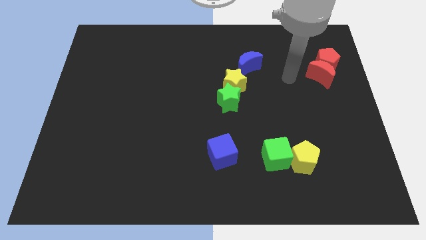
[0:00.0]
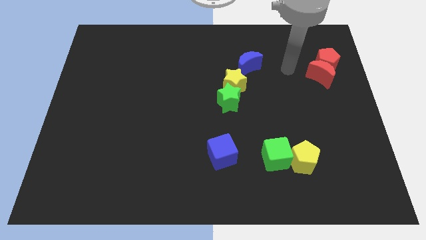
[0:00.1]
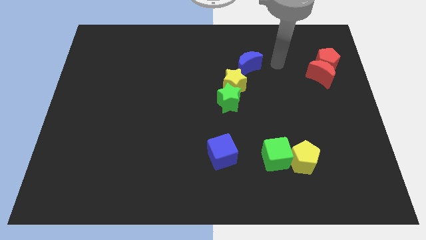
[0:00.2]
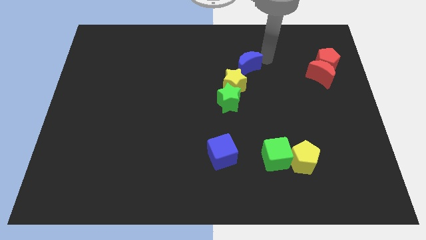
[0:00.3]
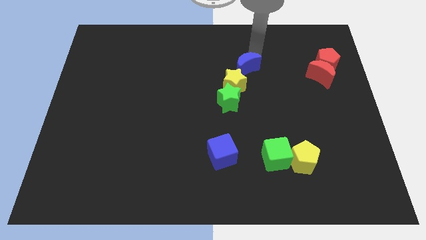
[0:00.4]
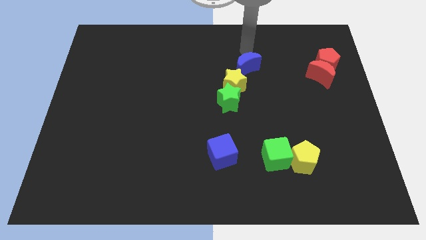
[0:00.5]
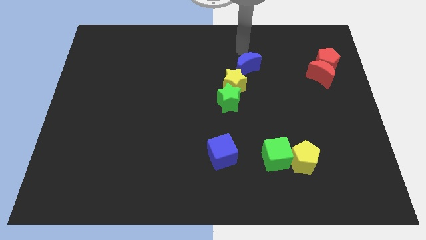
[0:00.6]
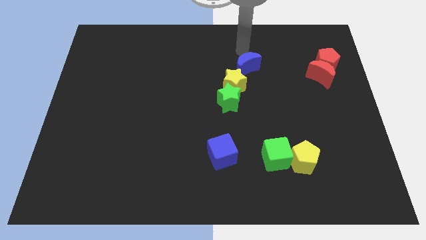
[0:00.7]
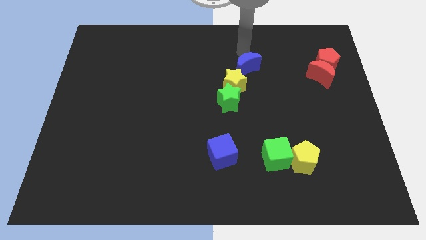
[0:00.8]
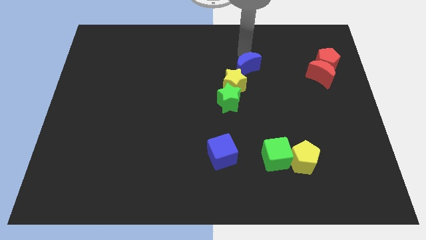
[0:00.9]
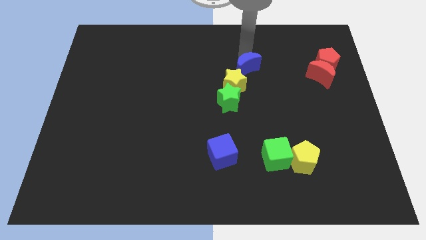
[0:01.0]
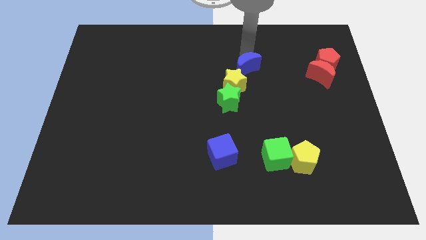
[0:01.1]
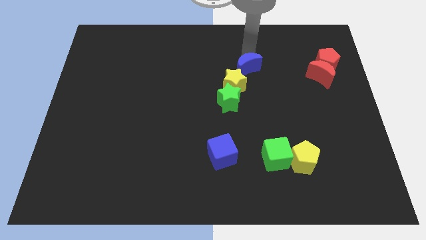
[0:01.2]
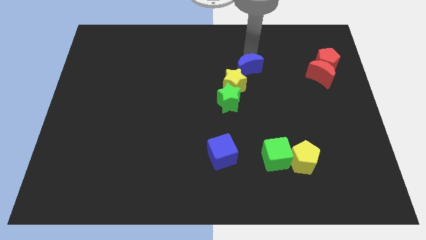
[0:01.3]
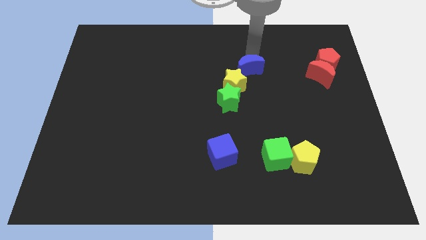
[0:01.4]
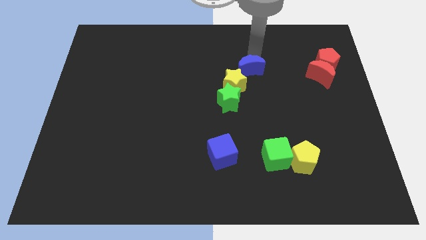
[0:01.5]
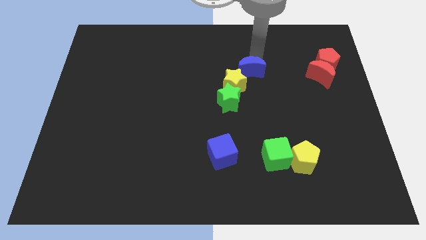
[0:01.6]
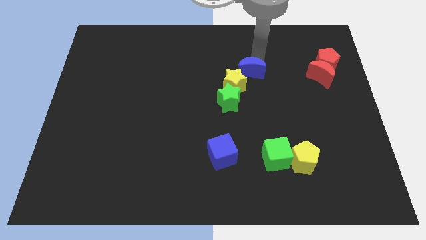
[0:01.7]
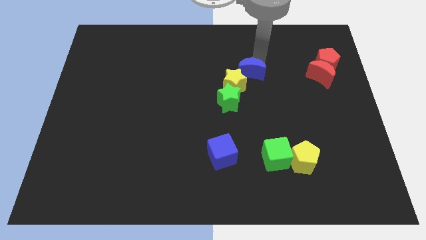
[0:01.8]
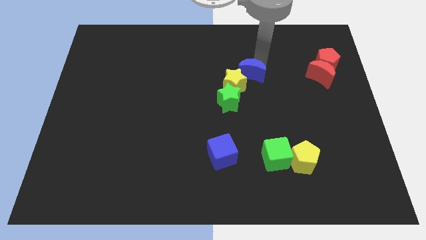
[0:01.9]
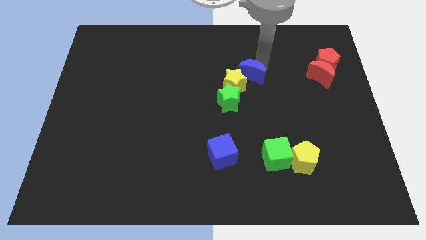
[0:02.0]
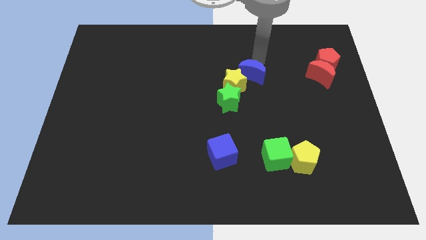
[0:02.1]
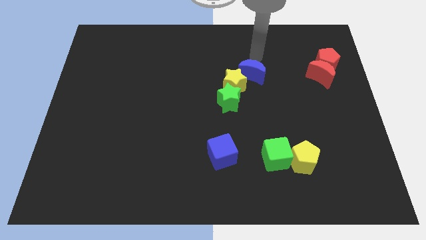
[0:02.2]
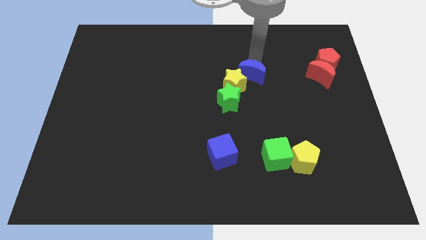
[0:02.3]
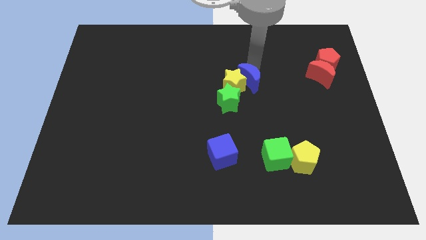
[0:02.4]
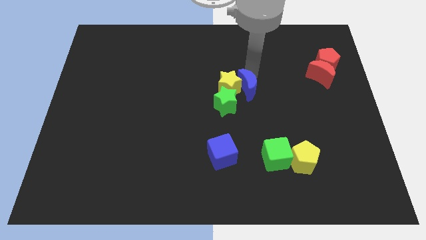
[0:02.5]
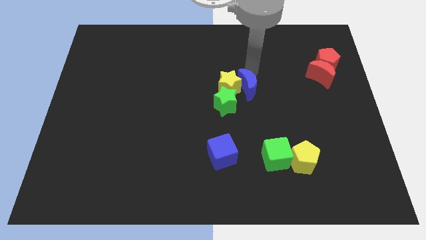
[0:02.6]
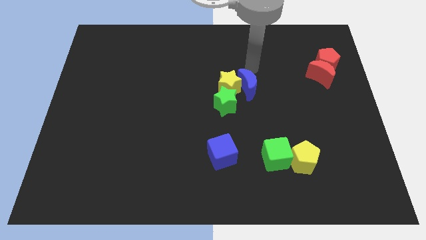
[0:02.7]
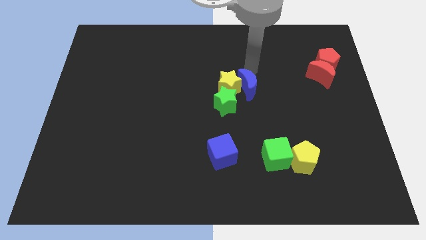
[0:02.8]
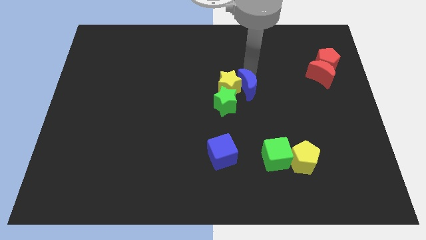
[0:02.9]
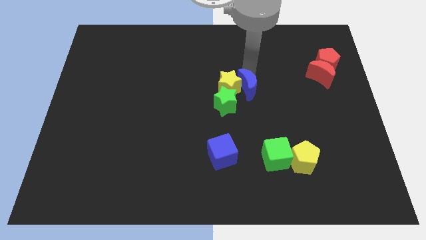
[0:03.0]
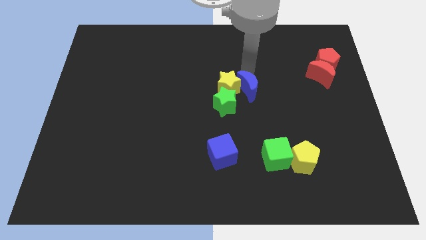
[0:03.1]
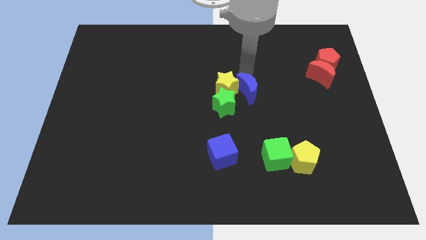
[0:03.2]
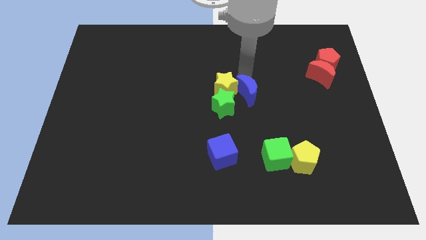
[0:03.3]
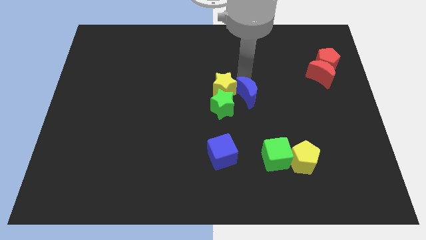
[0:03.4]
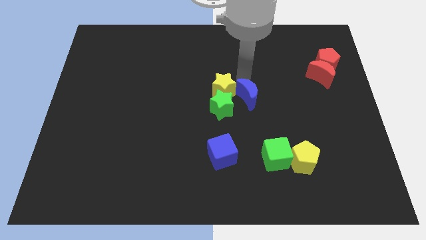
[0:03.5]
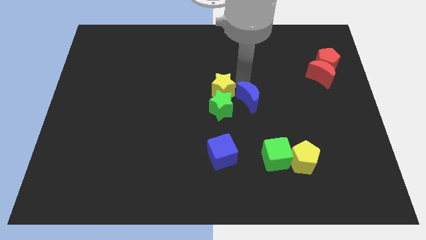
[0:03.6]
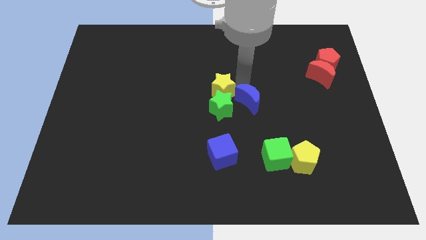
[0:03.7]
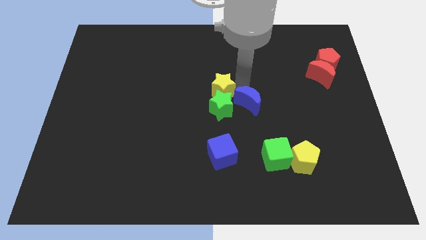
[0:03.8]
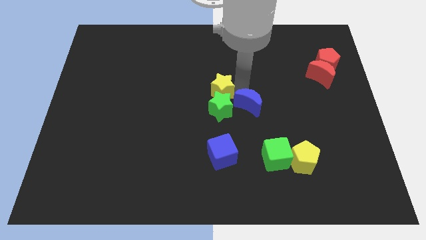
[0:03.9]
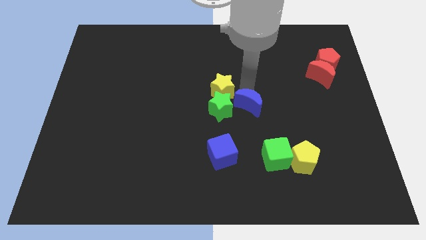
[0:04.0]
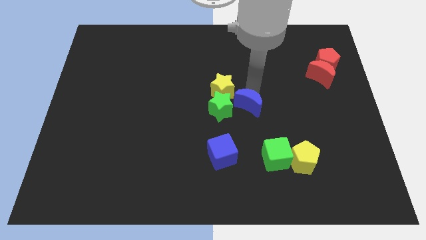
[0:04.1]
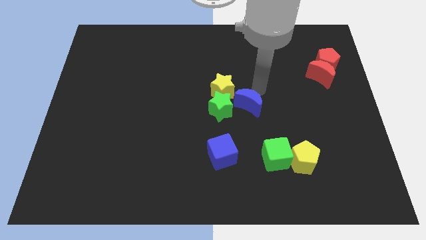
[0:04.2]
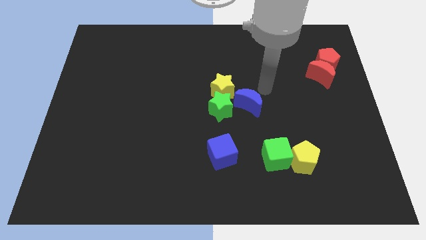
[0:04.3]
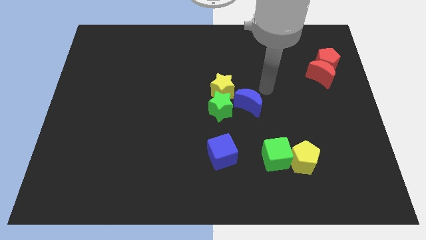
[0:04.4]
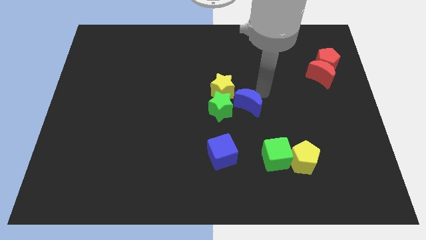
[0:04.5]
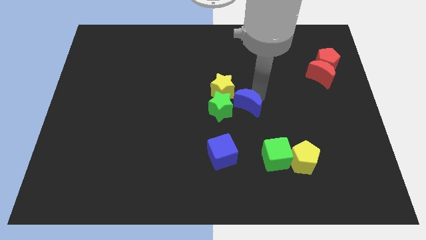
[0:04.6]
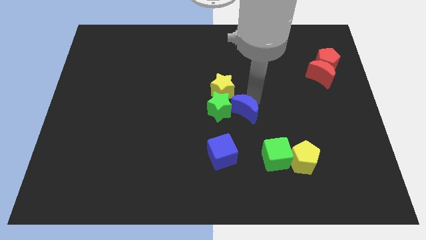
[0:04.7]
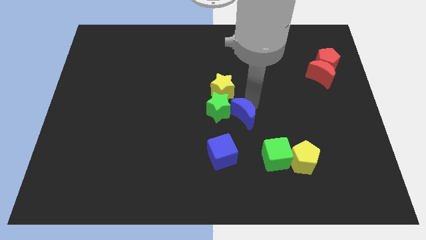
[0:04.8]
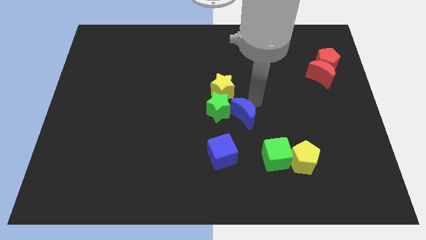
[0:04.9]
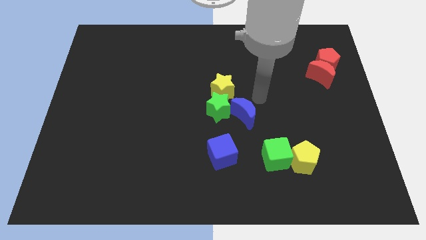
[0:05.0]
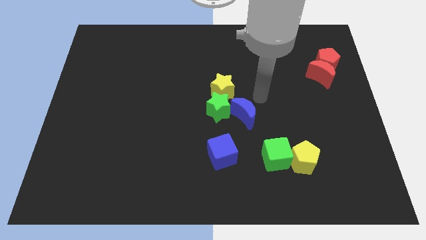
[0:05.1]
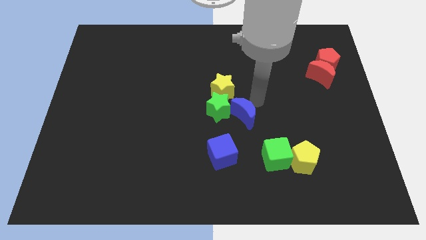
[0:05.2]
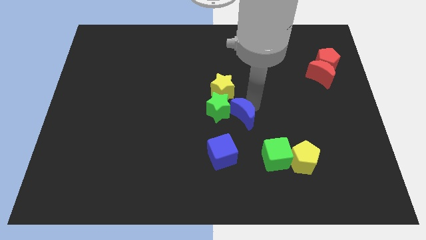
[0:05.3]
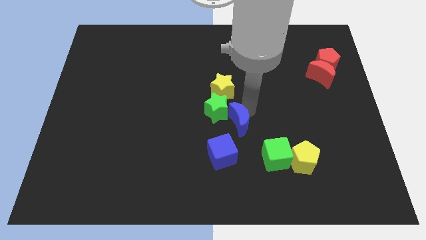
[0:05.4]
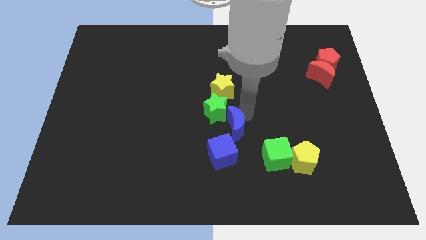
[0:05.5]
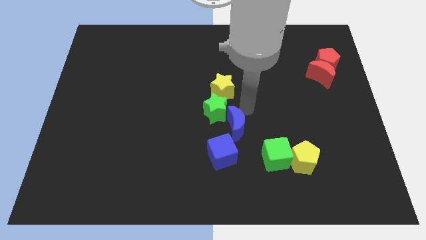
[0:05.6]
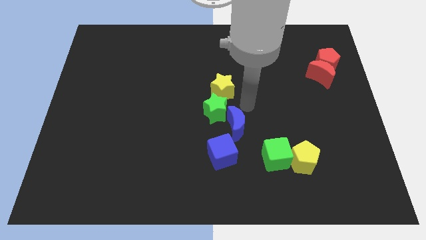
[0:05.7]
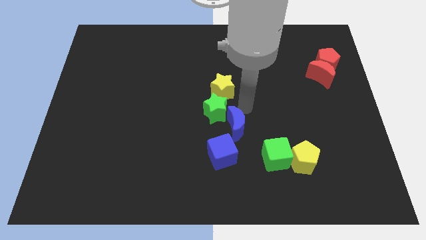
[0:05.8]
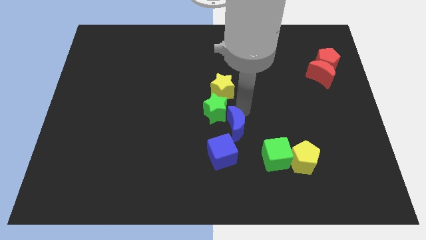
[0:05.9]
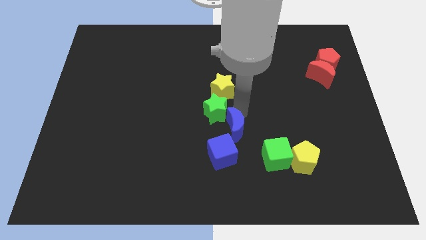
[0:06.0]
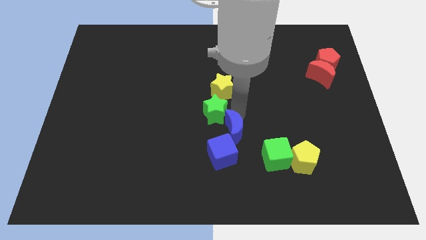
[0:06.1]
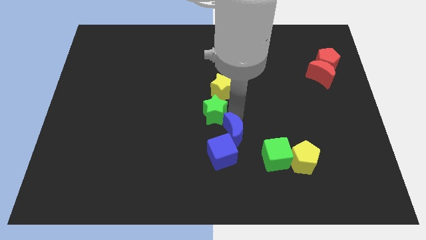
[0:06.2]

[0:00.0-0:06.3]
slide the blue moon to the blue cube

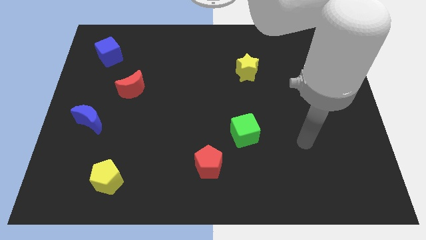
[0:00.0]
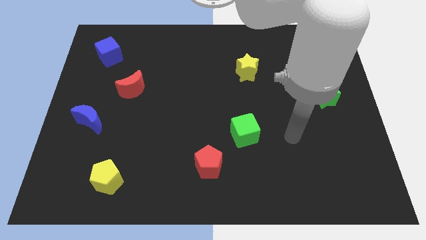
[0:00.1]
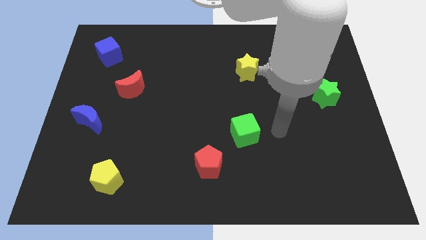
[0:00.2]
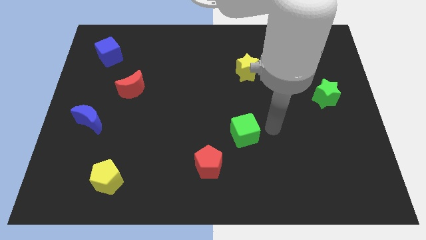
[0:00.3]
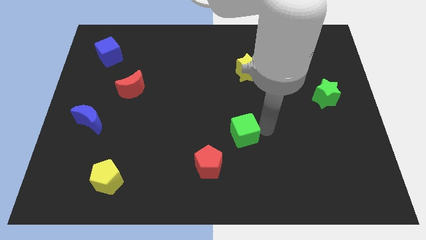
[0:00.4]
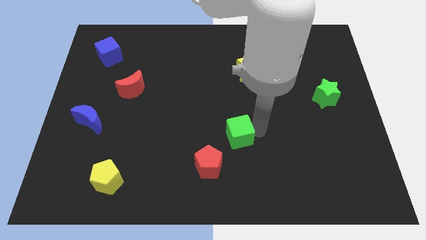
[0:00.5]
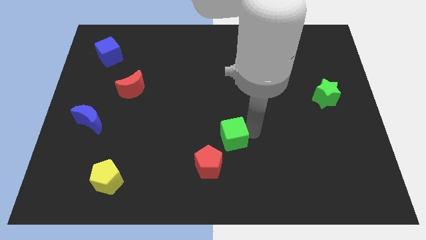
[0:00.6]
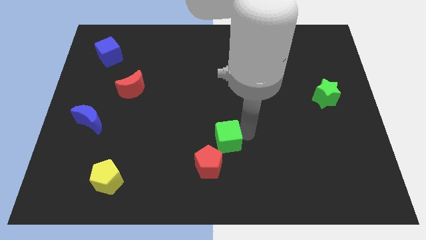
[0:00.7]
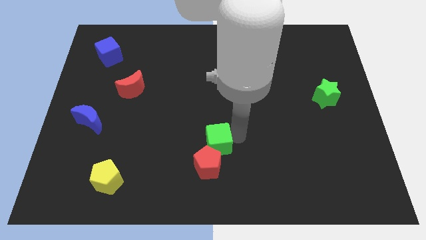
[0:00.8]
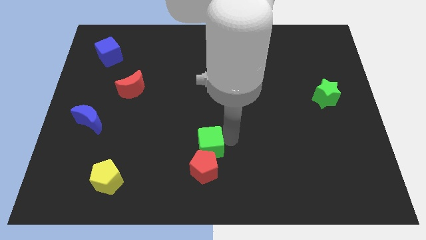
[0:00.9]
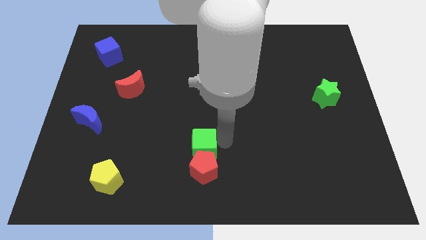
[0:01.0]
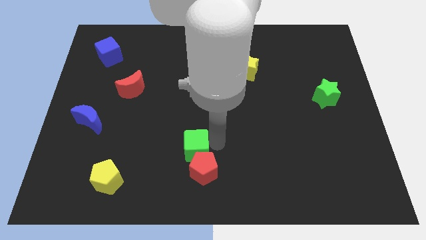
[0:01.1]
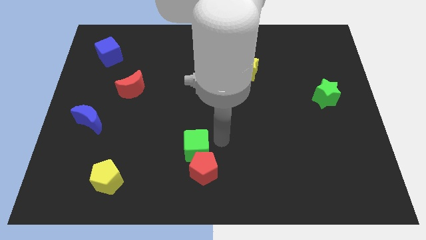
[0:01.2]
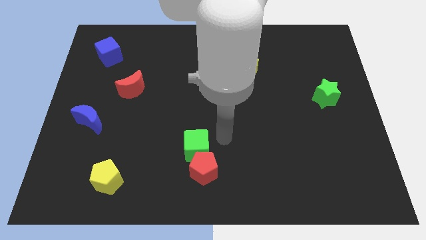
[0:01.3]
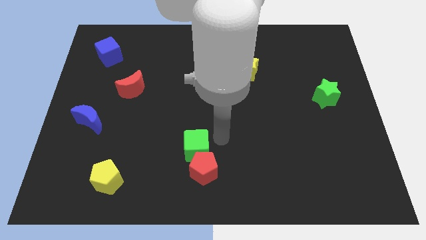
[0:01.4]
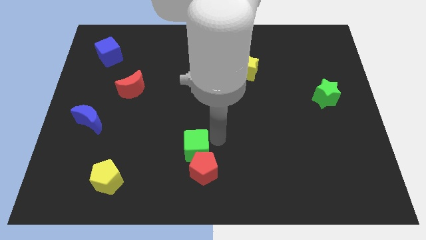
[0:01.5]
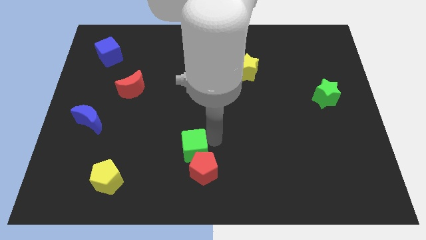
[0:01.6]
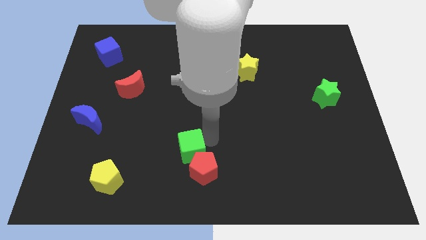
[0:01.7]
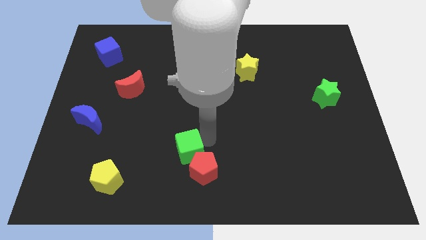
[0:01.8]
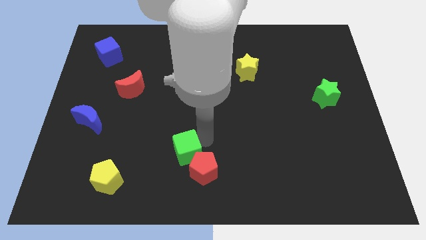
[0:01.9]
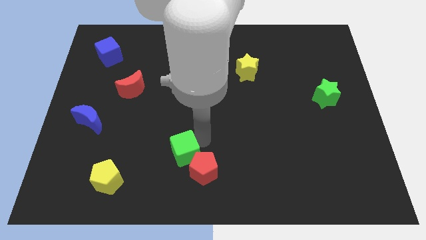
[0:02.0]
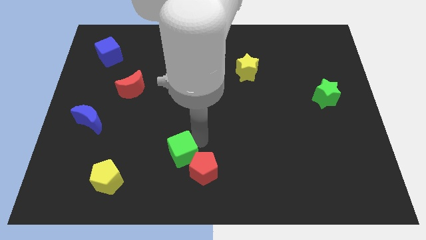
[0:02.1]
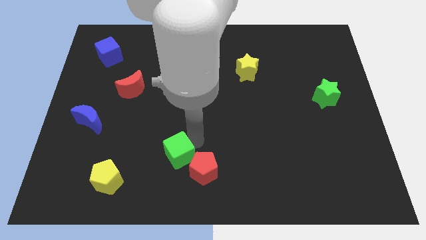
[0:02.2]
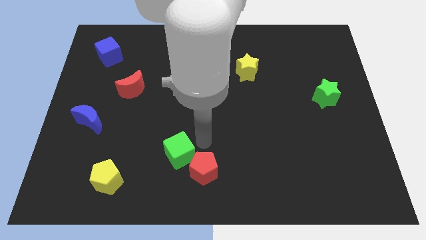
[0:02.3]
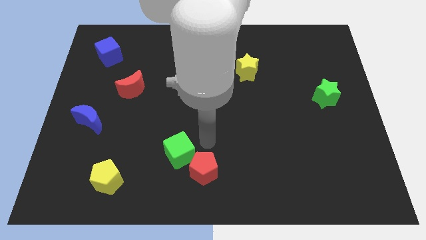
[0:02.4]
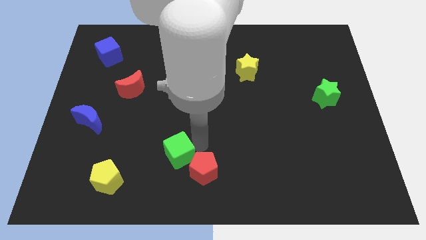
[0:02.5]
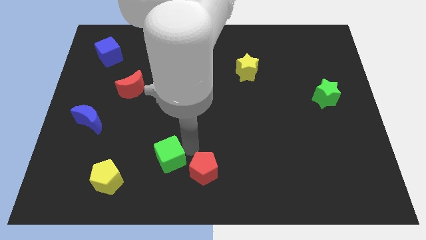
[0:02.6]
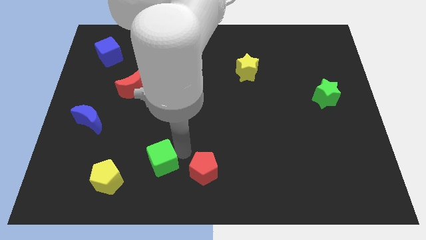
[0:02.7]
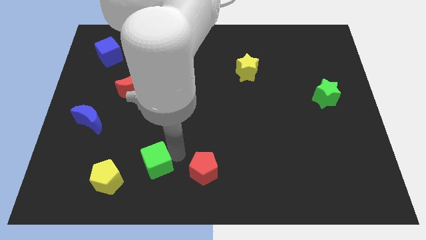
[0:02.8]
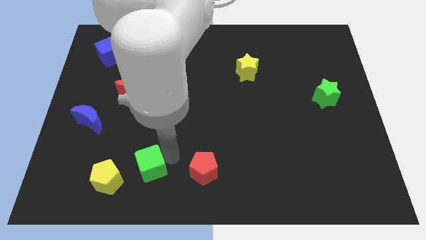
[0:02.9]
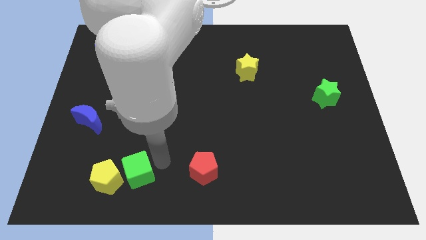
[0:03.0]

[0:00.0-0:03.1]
move the green cube towards the yellow pentagon
